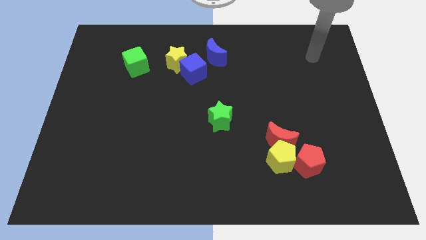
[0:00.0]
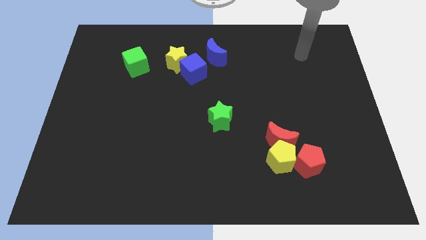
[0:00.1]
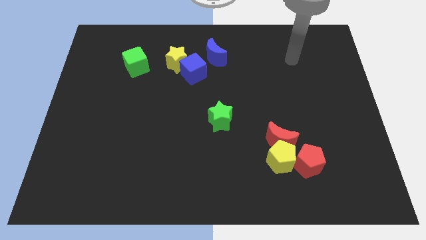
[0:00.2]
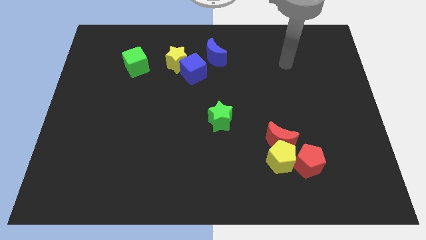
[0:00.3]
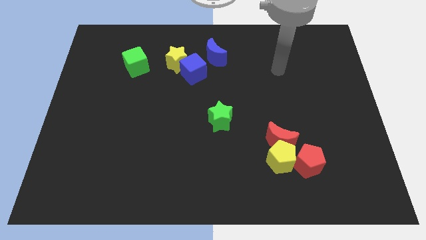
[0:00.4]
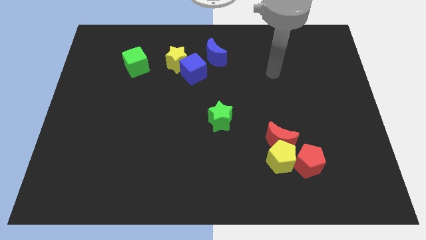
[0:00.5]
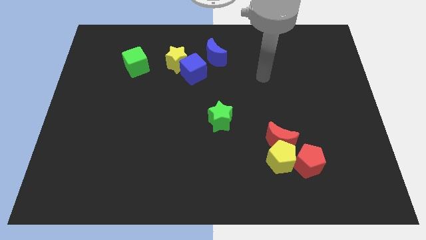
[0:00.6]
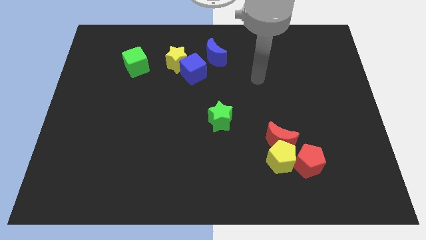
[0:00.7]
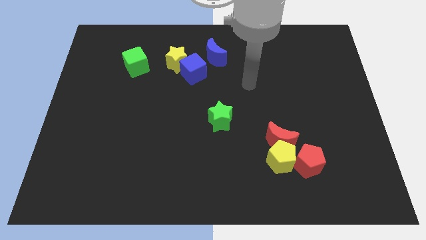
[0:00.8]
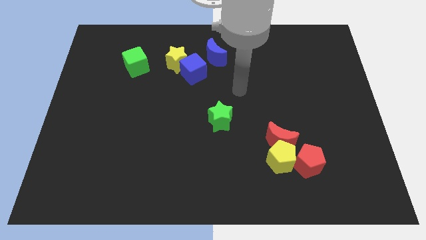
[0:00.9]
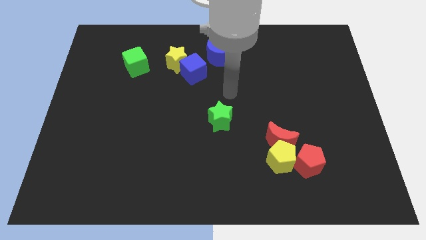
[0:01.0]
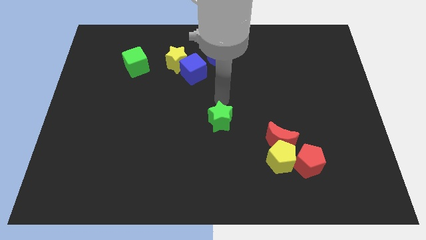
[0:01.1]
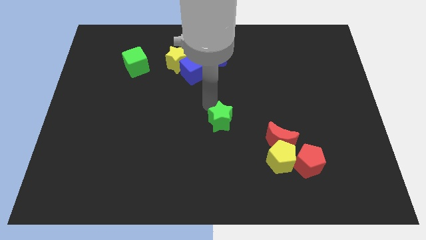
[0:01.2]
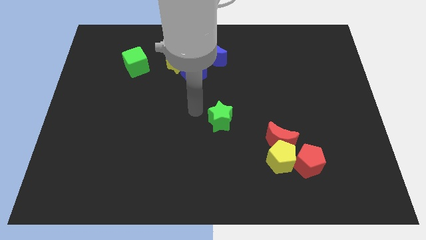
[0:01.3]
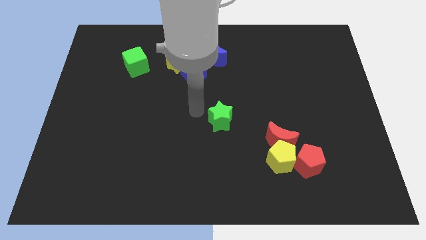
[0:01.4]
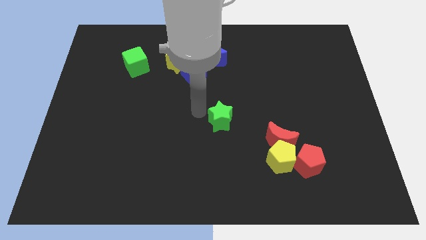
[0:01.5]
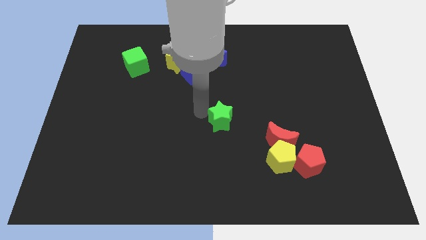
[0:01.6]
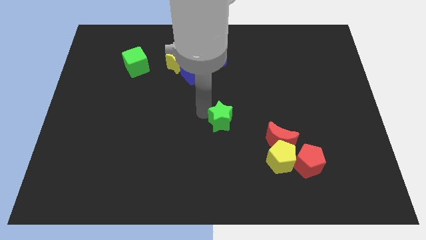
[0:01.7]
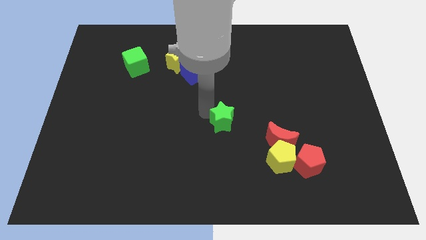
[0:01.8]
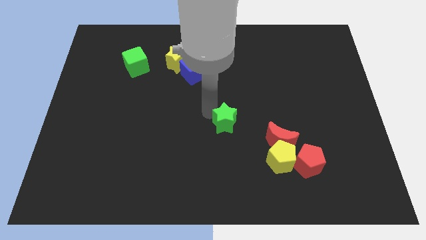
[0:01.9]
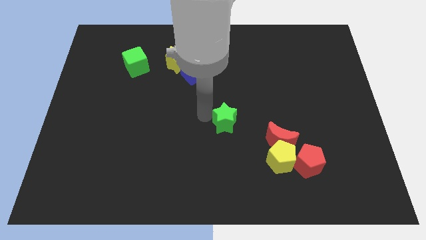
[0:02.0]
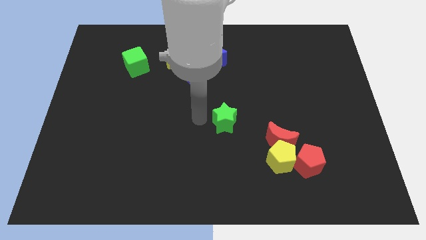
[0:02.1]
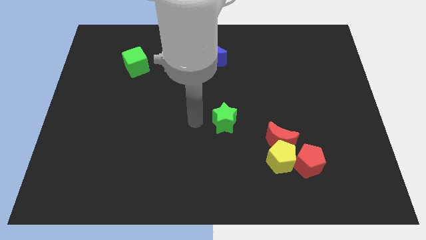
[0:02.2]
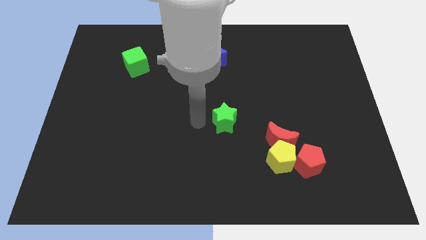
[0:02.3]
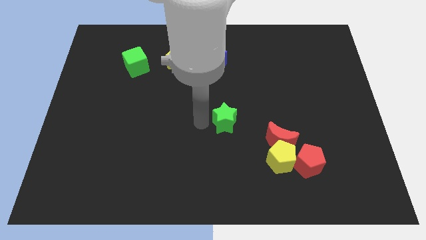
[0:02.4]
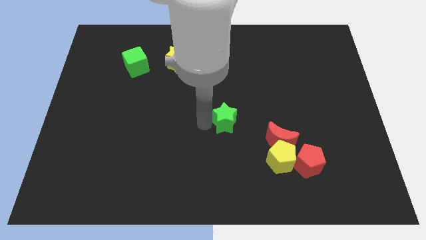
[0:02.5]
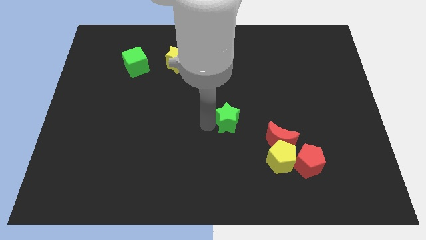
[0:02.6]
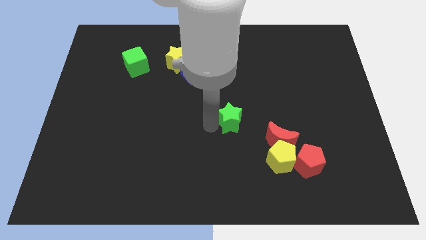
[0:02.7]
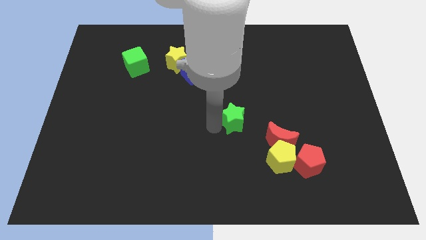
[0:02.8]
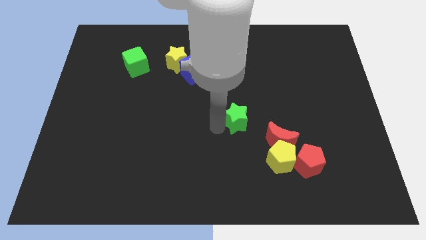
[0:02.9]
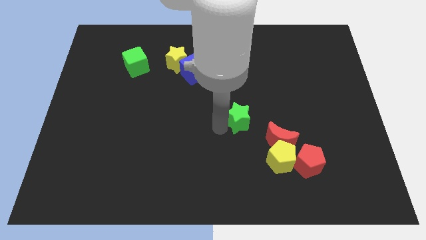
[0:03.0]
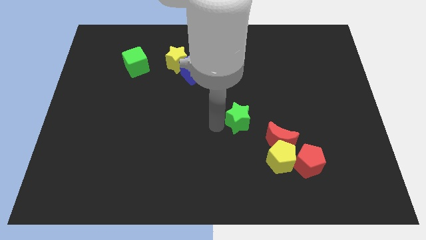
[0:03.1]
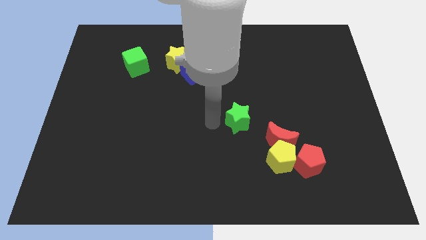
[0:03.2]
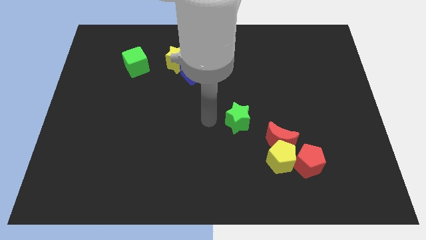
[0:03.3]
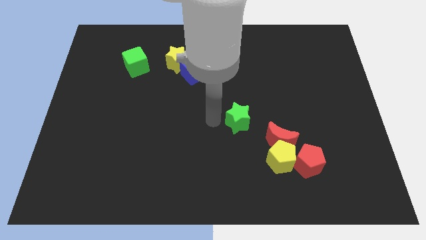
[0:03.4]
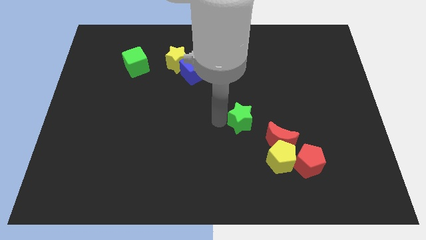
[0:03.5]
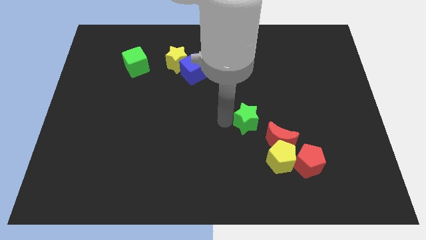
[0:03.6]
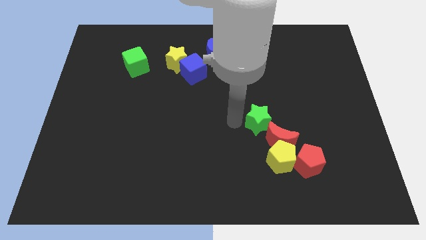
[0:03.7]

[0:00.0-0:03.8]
move the green star to the right a bit

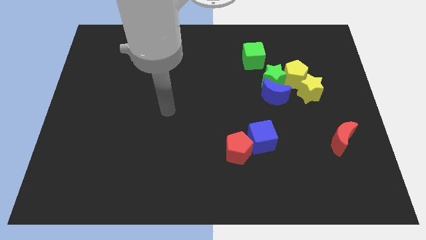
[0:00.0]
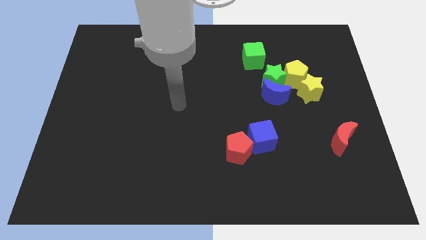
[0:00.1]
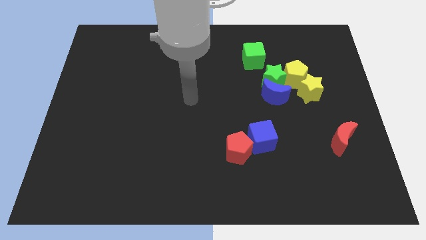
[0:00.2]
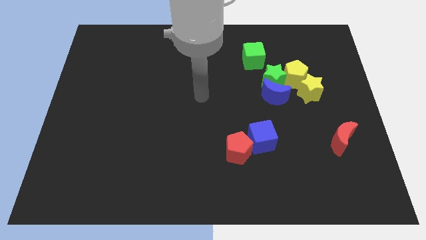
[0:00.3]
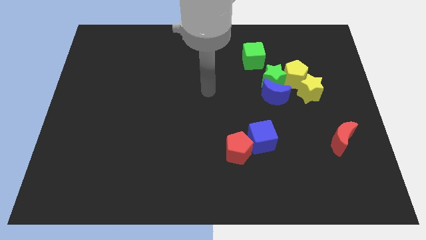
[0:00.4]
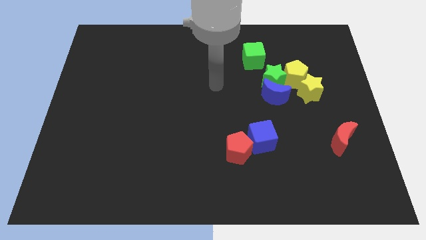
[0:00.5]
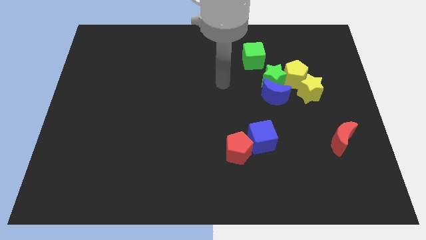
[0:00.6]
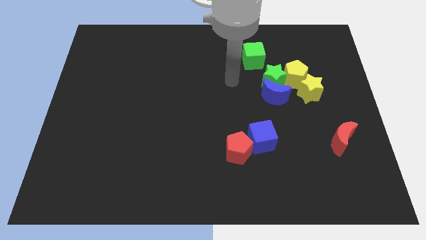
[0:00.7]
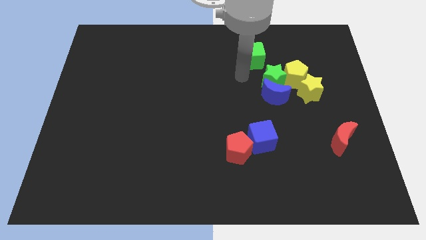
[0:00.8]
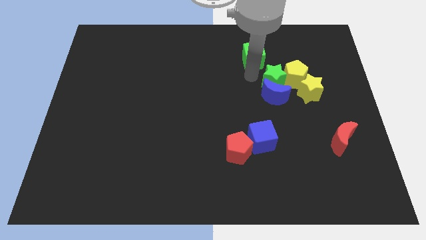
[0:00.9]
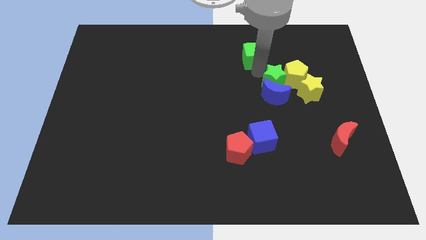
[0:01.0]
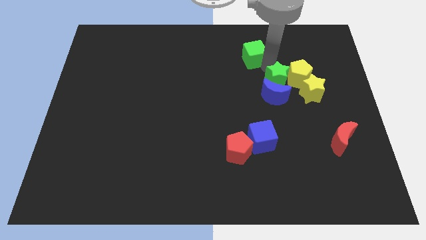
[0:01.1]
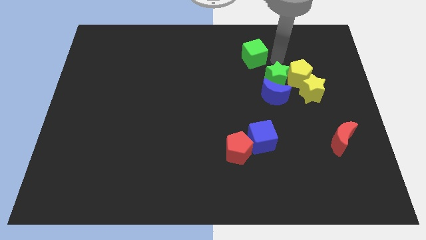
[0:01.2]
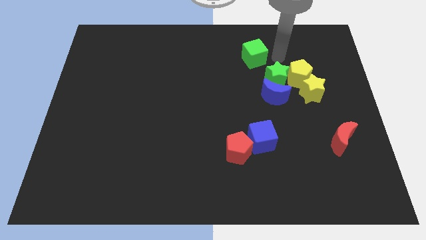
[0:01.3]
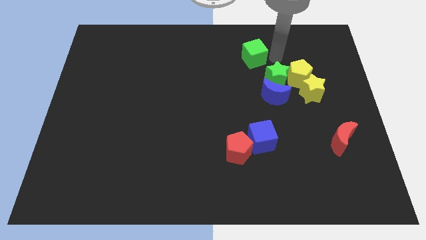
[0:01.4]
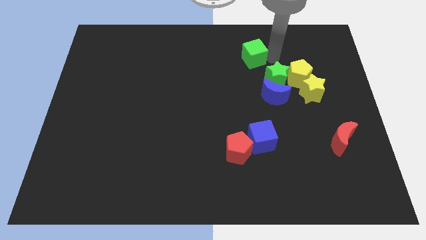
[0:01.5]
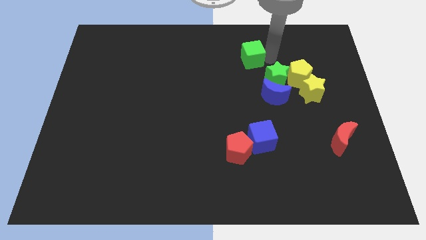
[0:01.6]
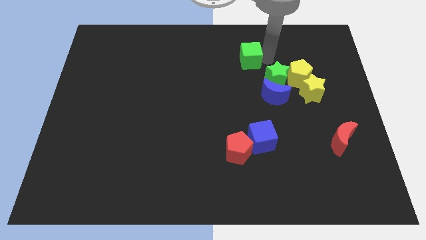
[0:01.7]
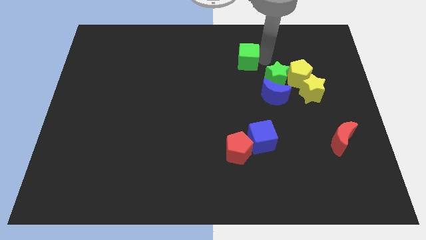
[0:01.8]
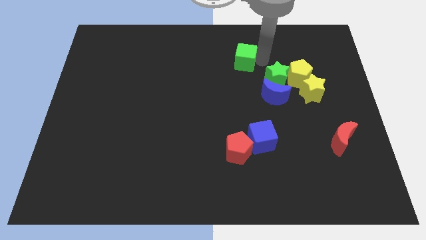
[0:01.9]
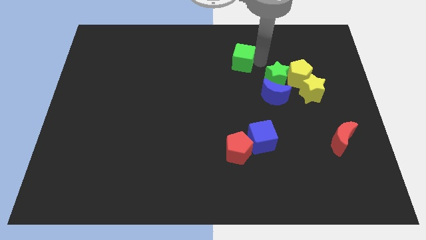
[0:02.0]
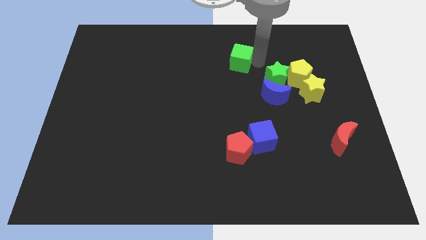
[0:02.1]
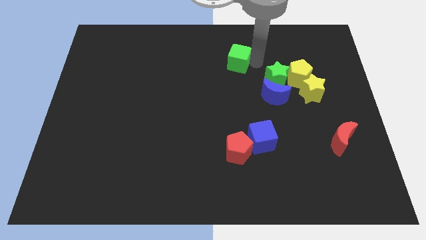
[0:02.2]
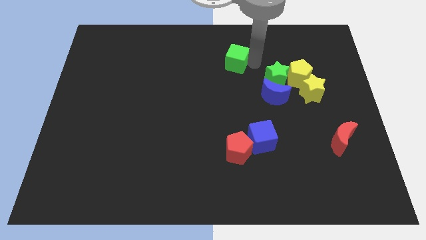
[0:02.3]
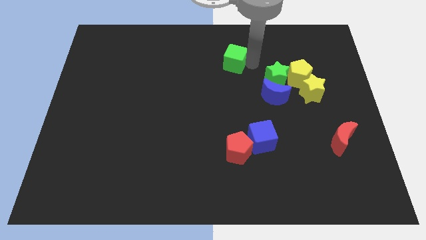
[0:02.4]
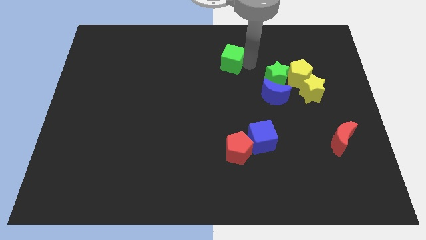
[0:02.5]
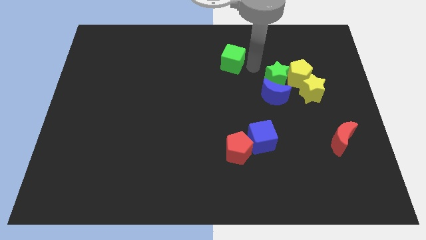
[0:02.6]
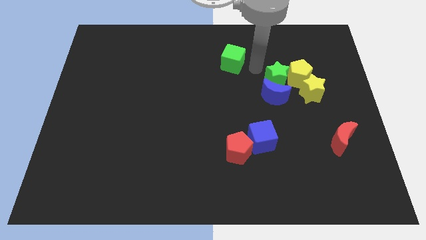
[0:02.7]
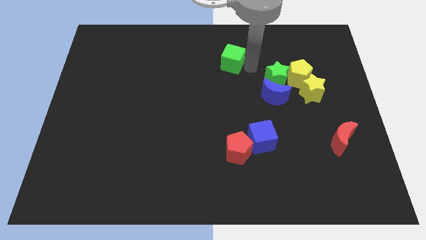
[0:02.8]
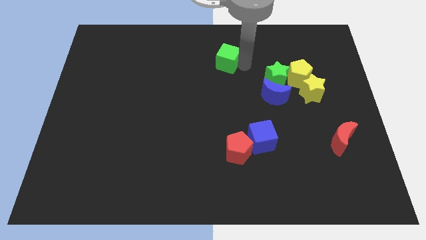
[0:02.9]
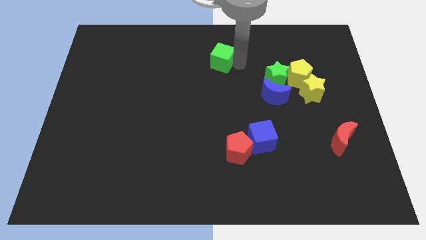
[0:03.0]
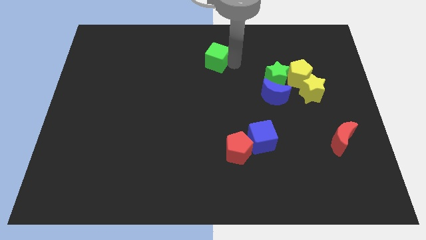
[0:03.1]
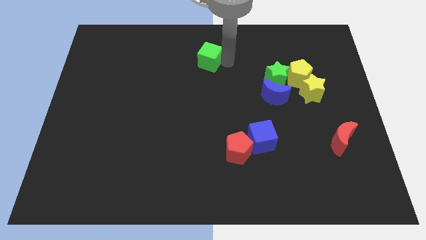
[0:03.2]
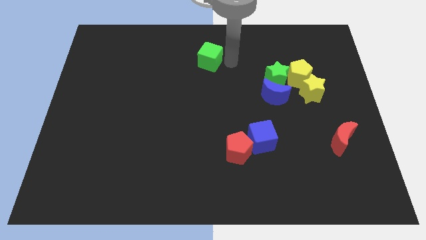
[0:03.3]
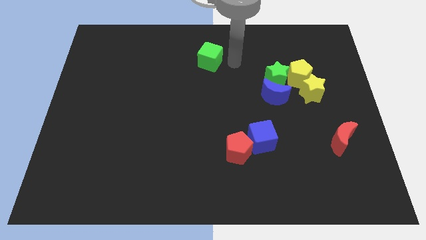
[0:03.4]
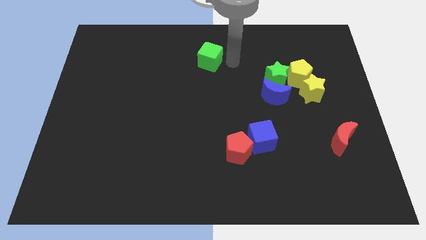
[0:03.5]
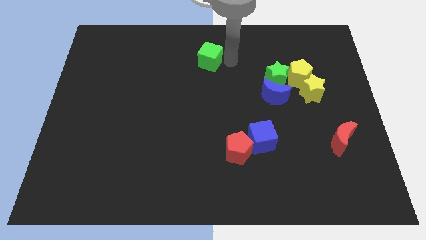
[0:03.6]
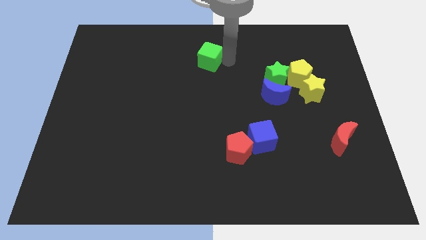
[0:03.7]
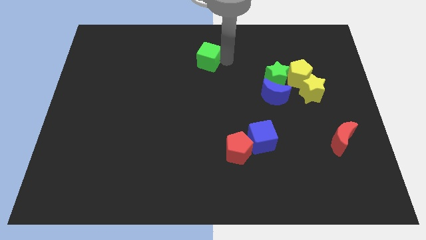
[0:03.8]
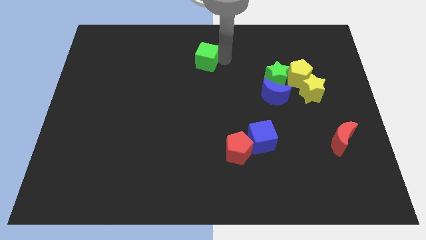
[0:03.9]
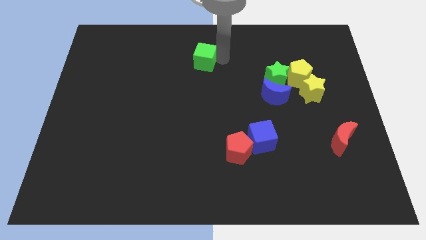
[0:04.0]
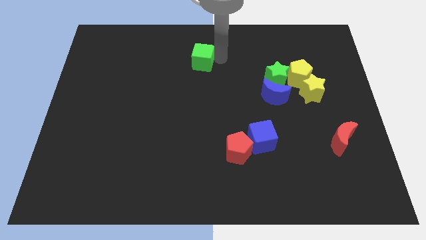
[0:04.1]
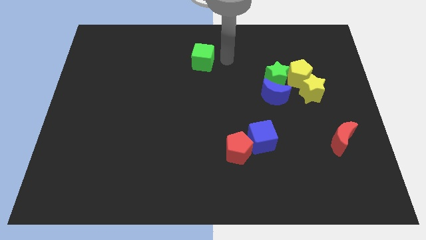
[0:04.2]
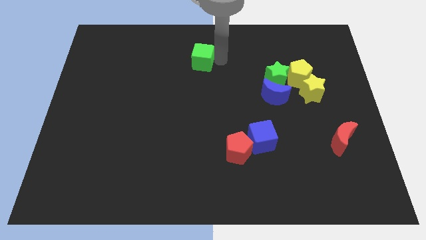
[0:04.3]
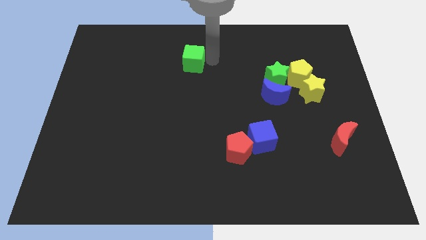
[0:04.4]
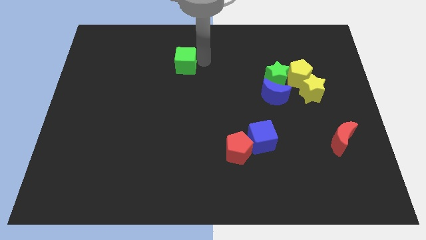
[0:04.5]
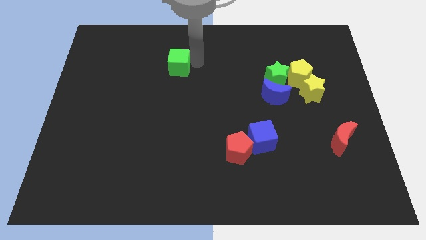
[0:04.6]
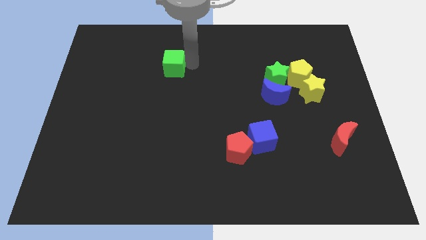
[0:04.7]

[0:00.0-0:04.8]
slide the green cube left
